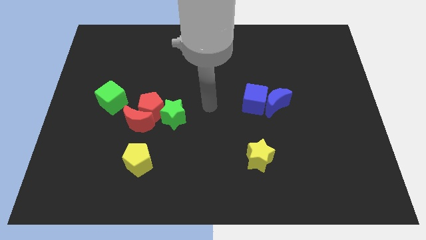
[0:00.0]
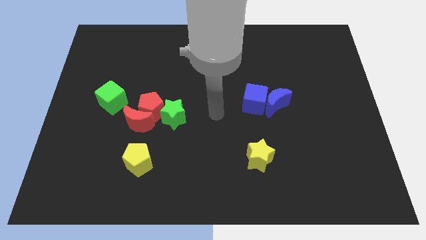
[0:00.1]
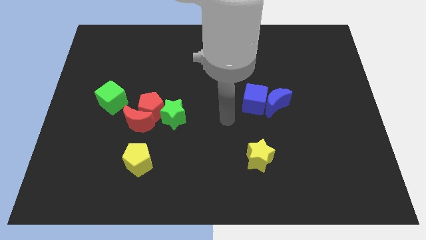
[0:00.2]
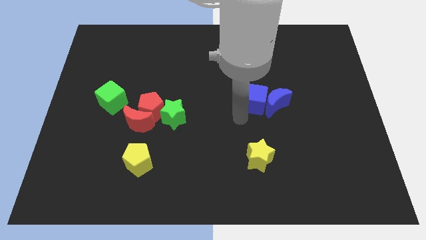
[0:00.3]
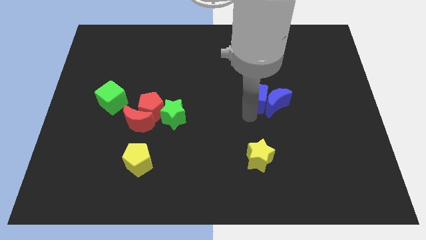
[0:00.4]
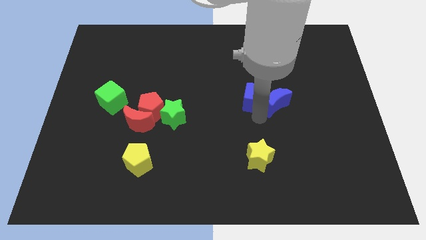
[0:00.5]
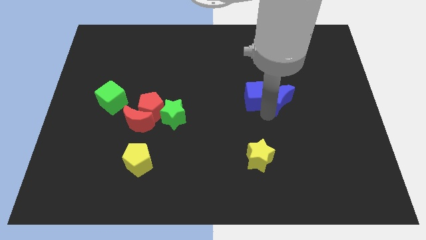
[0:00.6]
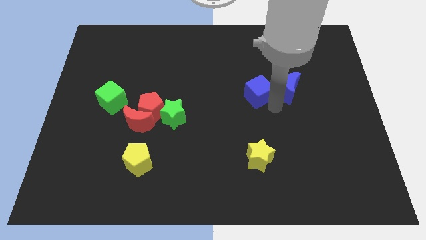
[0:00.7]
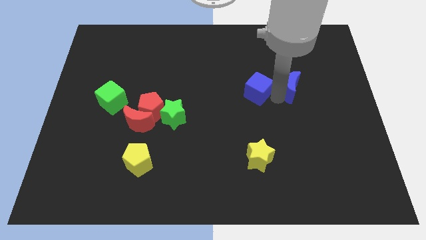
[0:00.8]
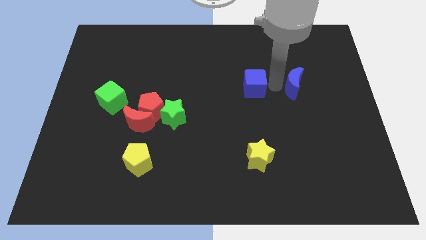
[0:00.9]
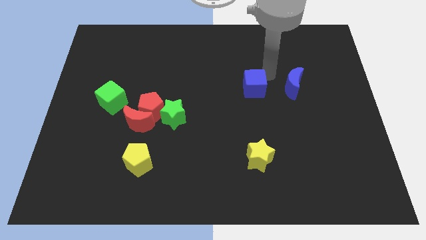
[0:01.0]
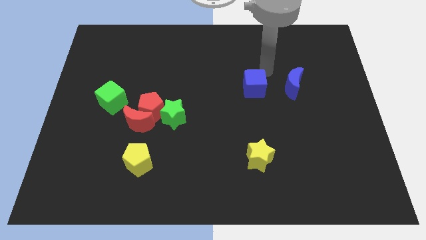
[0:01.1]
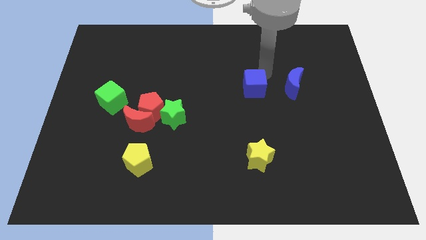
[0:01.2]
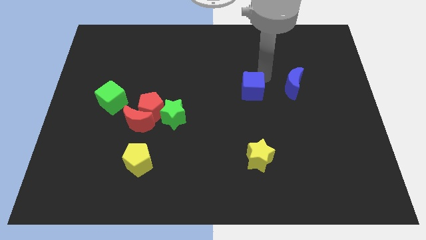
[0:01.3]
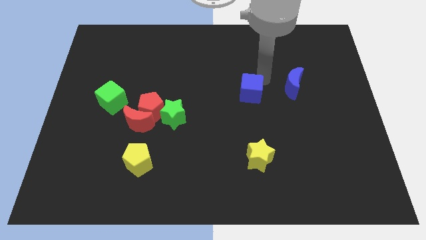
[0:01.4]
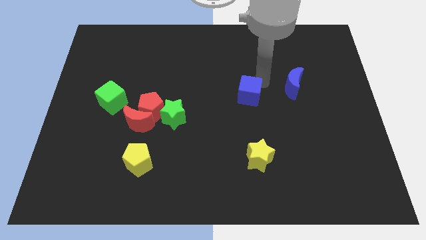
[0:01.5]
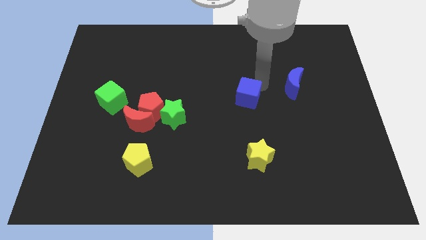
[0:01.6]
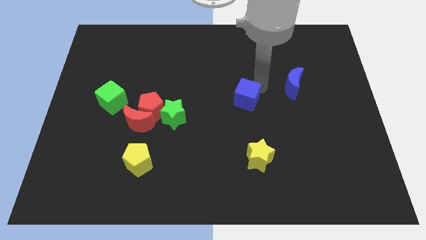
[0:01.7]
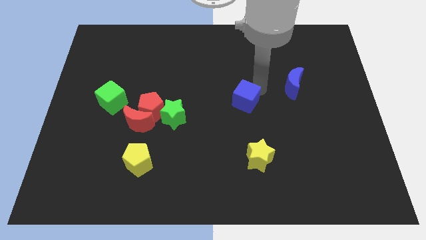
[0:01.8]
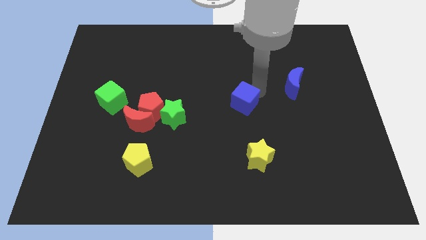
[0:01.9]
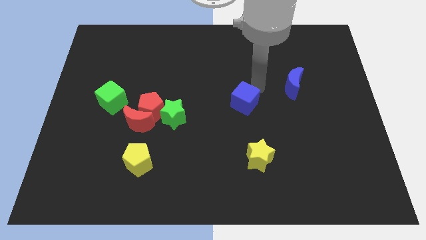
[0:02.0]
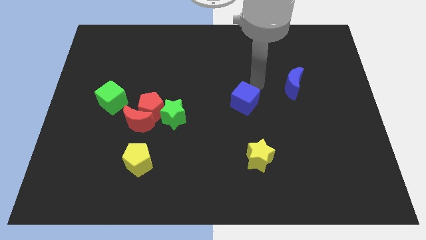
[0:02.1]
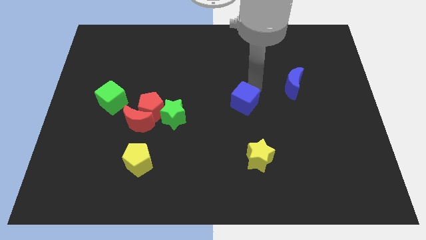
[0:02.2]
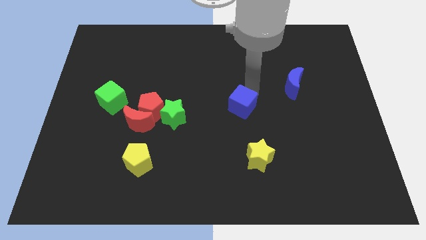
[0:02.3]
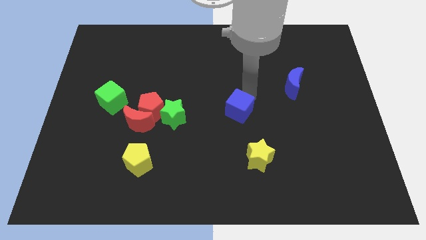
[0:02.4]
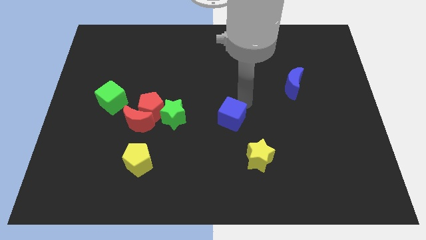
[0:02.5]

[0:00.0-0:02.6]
move the blue cube slightly downwards and then to the left

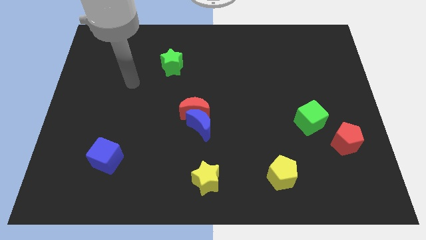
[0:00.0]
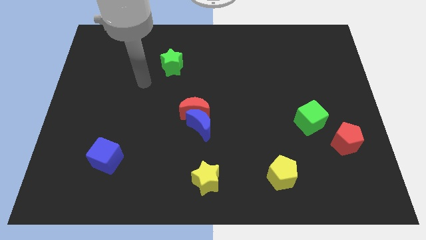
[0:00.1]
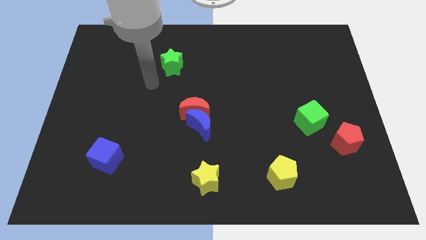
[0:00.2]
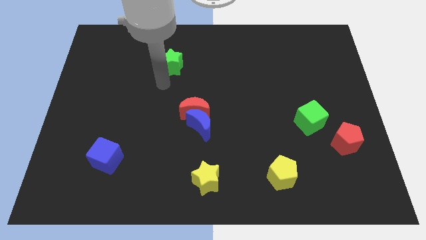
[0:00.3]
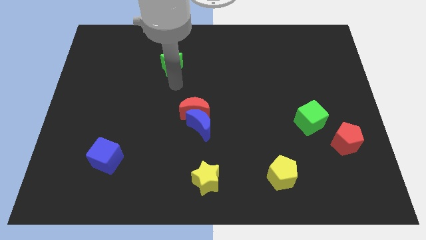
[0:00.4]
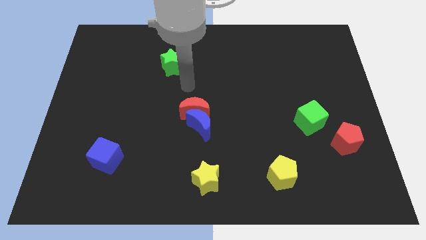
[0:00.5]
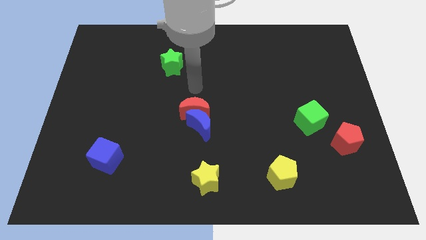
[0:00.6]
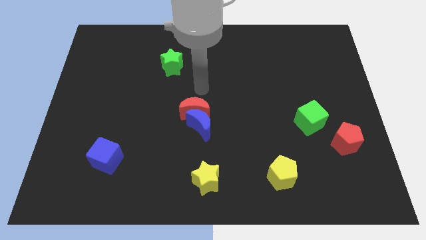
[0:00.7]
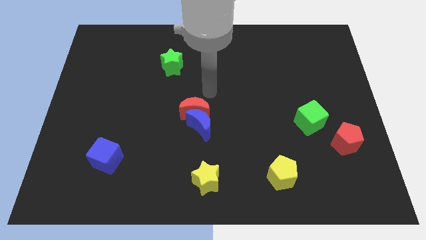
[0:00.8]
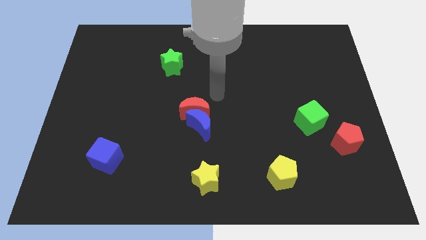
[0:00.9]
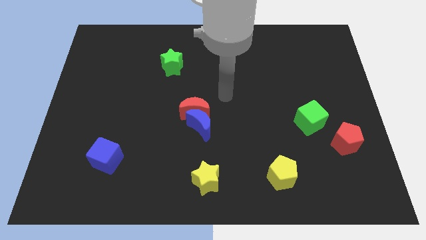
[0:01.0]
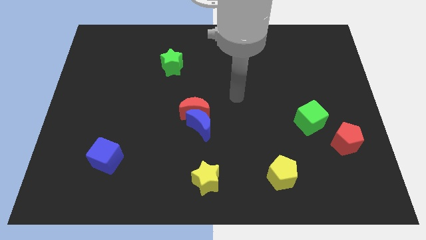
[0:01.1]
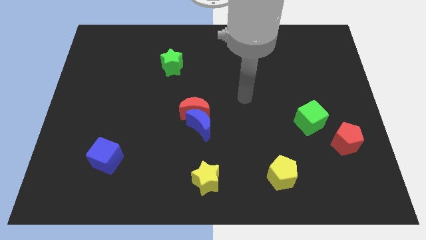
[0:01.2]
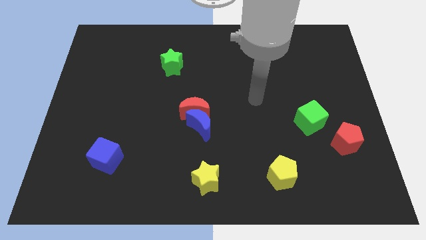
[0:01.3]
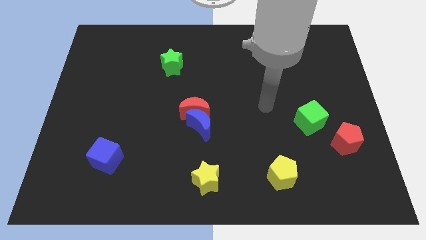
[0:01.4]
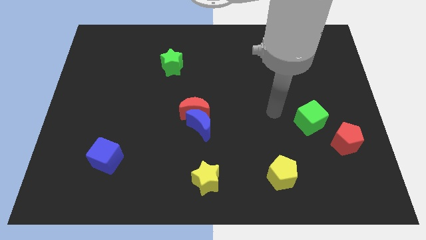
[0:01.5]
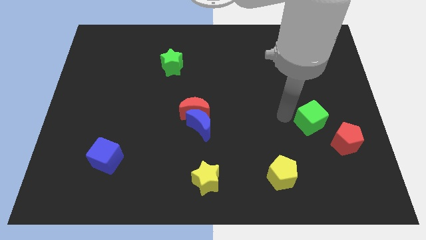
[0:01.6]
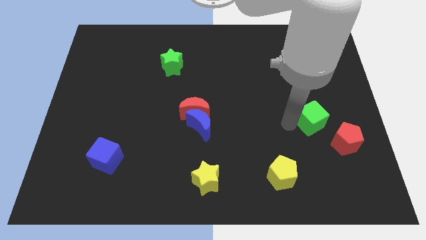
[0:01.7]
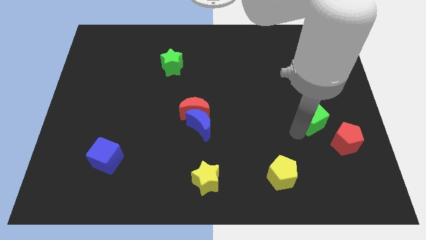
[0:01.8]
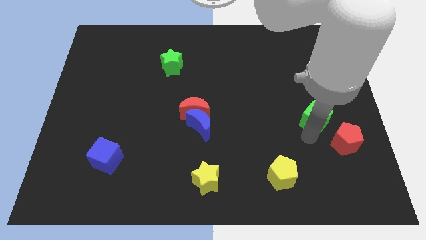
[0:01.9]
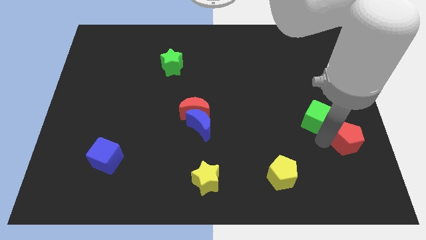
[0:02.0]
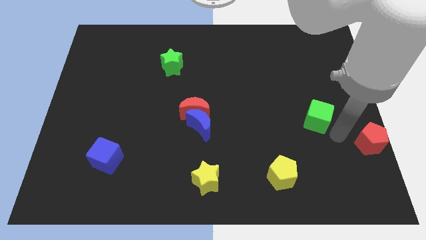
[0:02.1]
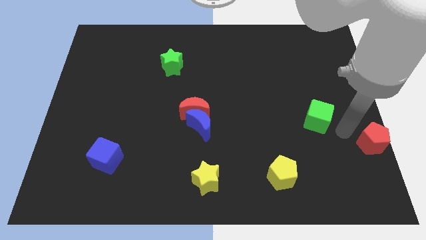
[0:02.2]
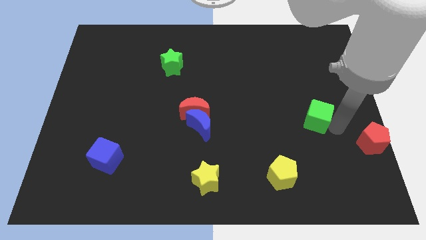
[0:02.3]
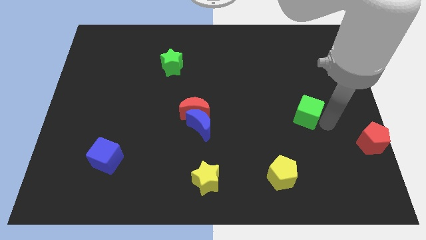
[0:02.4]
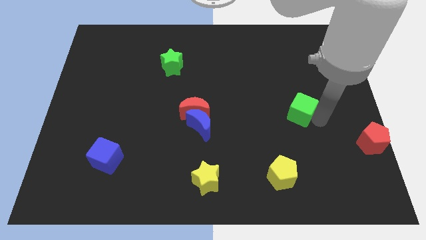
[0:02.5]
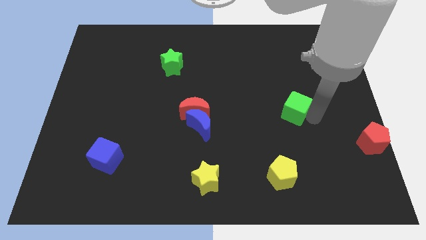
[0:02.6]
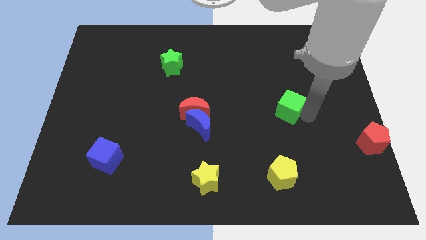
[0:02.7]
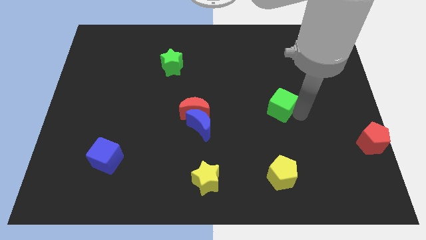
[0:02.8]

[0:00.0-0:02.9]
push the green cube a bit up and then left

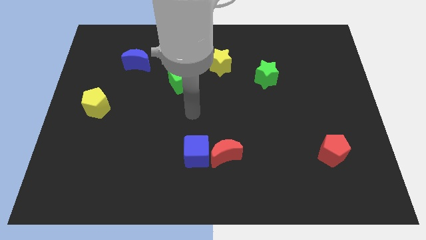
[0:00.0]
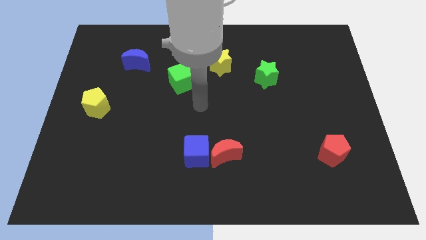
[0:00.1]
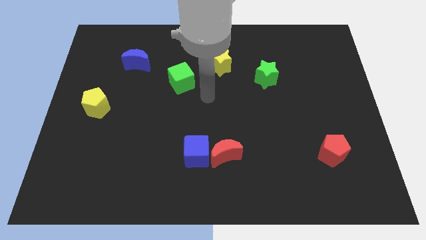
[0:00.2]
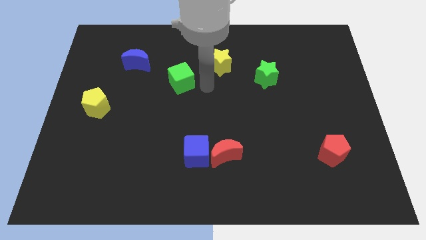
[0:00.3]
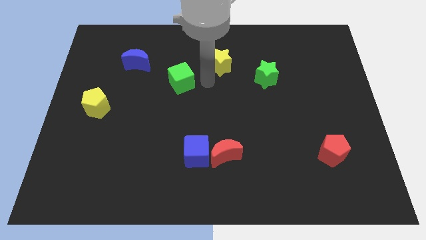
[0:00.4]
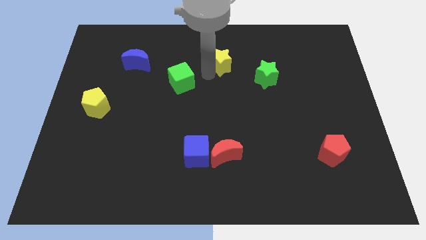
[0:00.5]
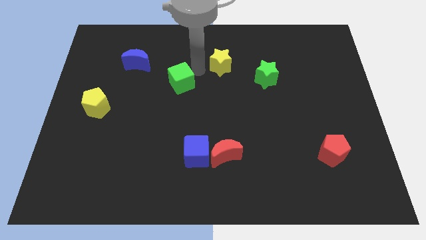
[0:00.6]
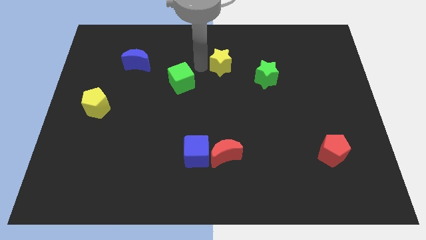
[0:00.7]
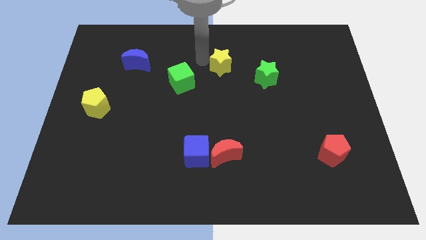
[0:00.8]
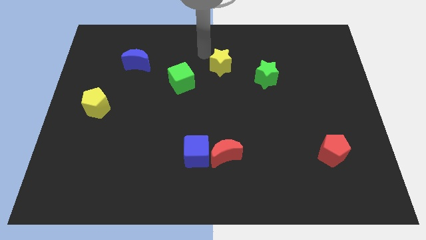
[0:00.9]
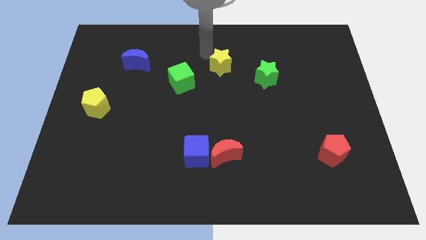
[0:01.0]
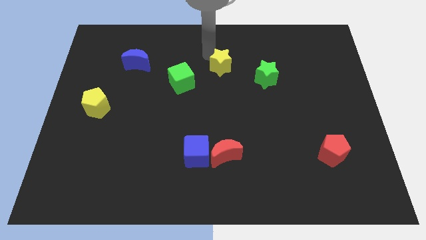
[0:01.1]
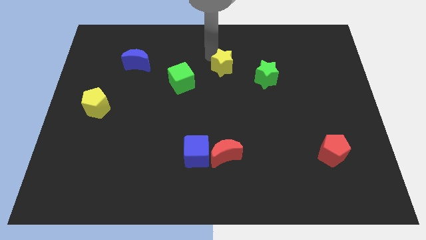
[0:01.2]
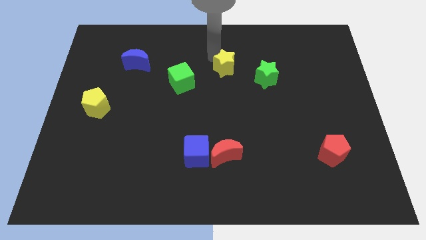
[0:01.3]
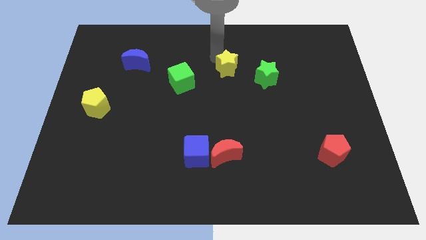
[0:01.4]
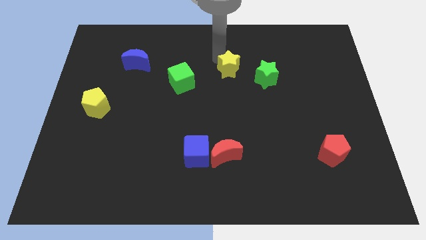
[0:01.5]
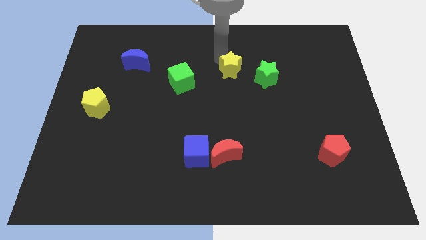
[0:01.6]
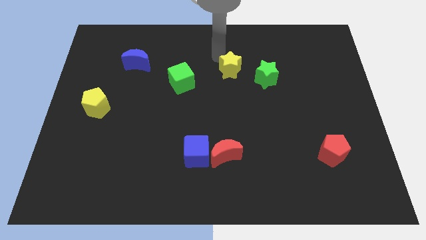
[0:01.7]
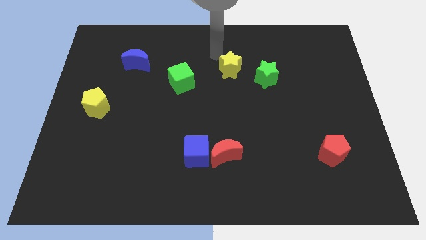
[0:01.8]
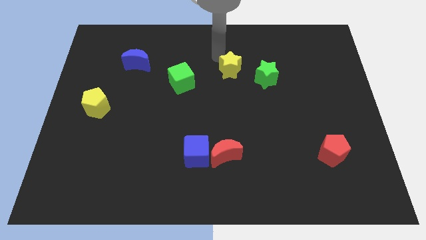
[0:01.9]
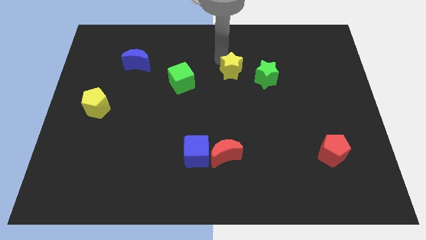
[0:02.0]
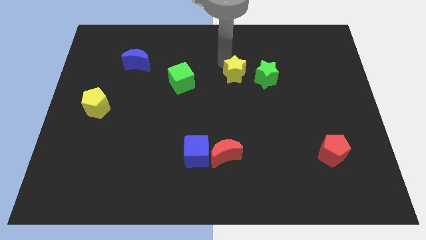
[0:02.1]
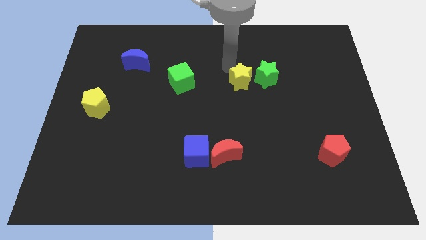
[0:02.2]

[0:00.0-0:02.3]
slightly push the yellow star diagonally downwards and right

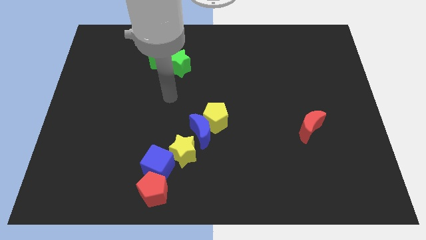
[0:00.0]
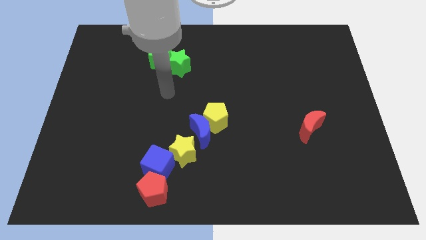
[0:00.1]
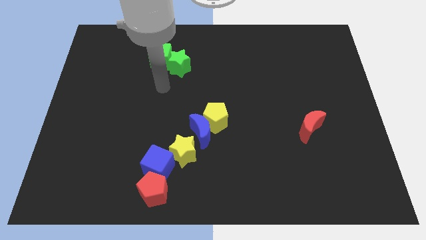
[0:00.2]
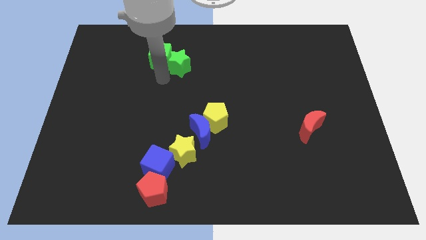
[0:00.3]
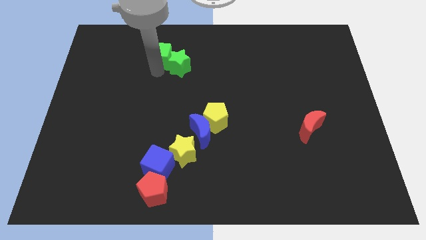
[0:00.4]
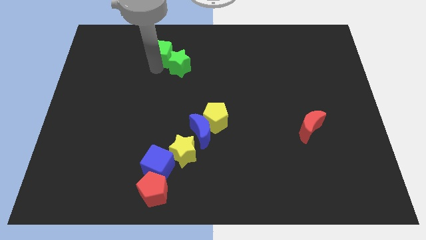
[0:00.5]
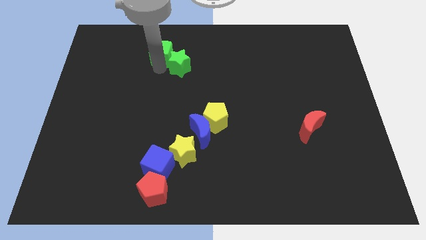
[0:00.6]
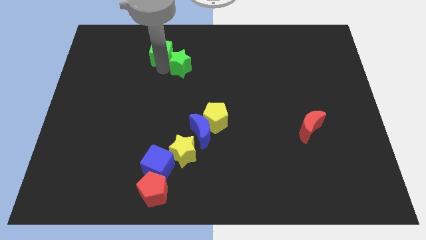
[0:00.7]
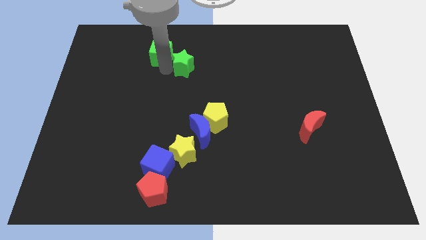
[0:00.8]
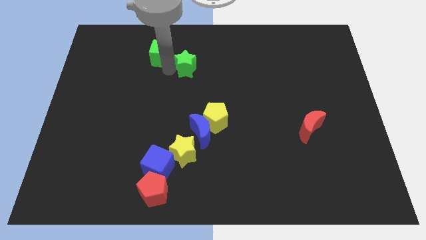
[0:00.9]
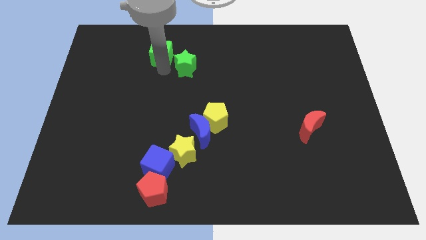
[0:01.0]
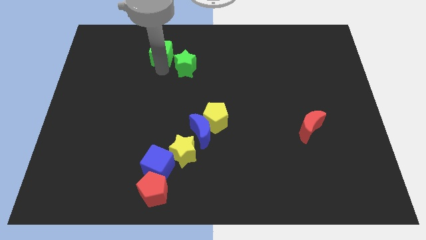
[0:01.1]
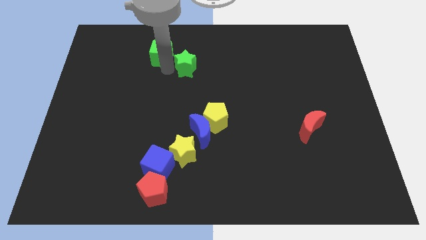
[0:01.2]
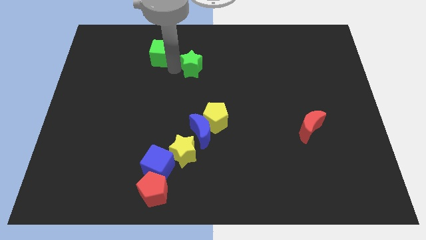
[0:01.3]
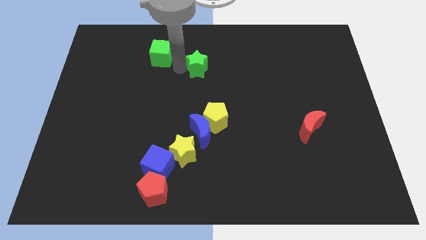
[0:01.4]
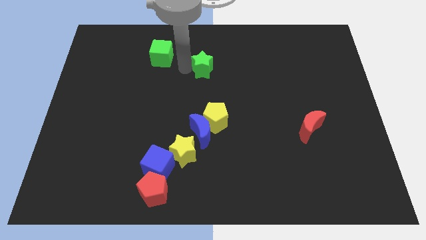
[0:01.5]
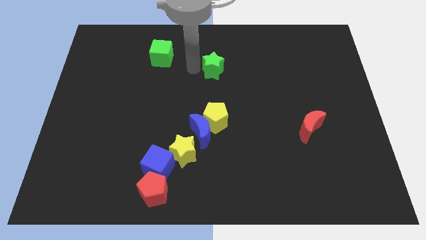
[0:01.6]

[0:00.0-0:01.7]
slide the green star right a bit
